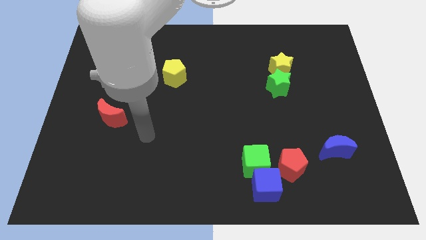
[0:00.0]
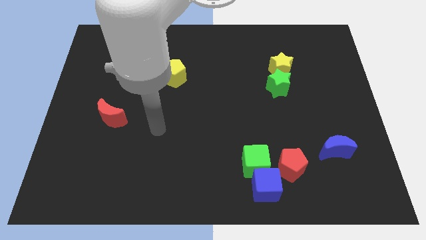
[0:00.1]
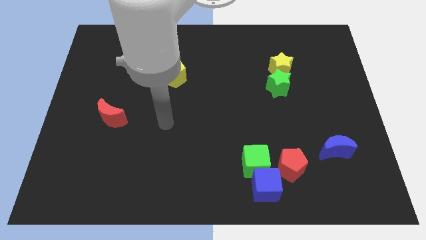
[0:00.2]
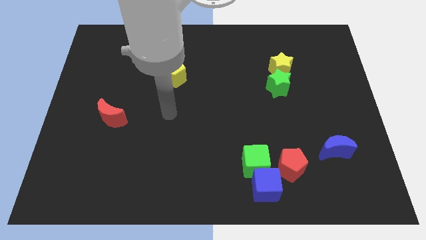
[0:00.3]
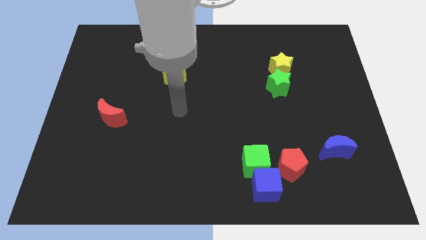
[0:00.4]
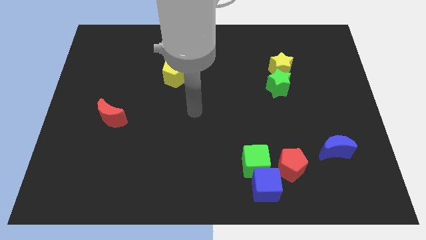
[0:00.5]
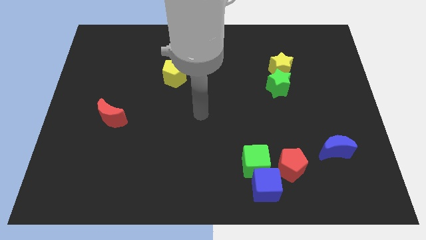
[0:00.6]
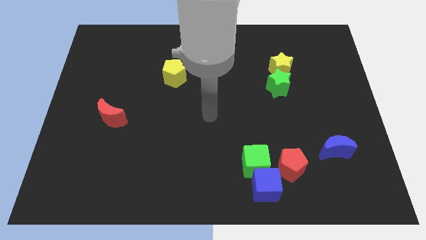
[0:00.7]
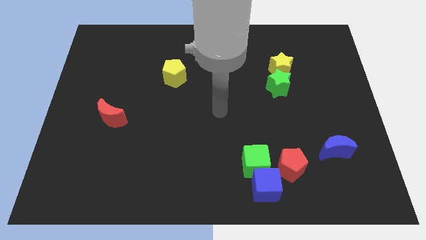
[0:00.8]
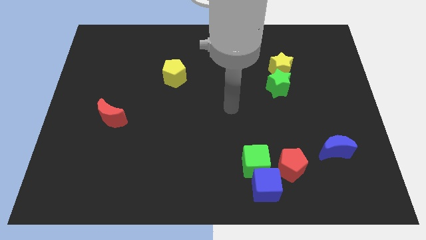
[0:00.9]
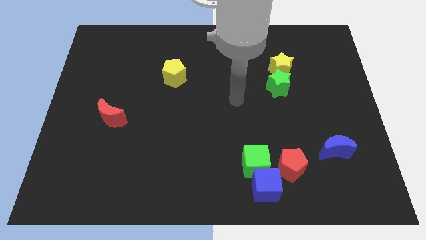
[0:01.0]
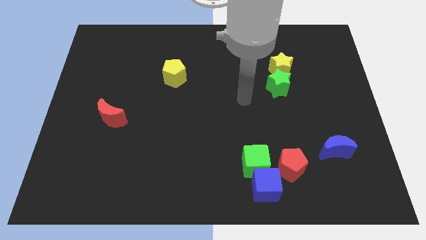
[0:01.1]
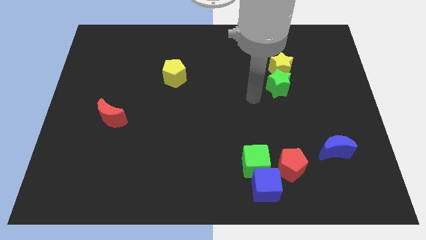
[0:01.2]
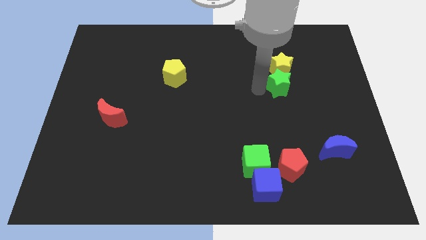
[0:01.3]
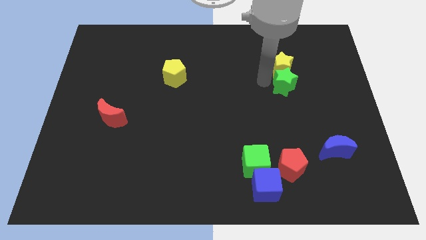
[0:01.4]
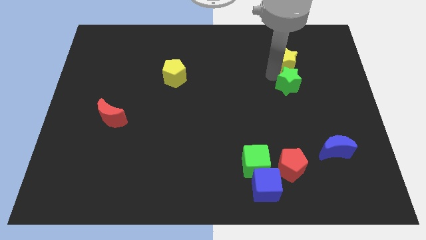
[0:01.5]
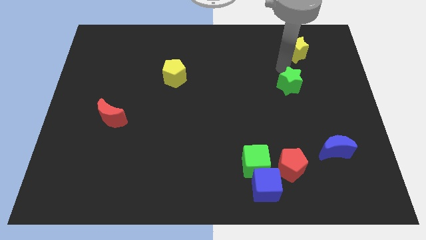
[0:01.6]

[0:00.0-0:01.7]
move the green star away from the yellow star

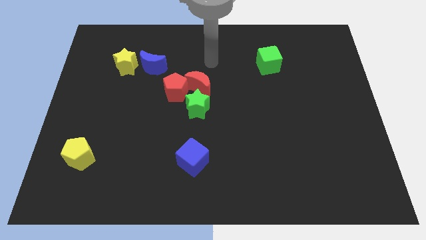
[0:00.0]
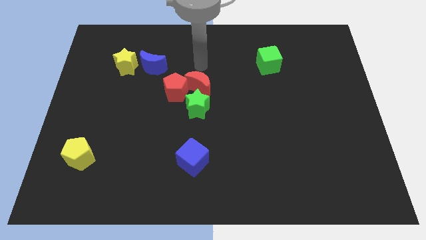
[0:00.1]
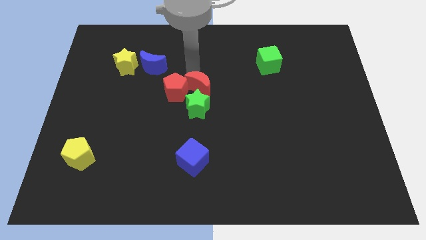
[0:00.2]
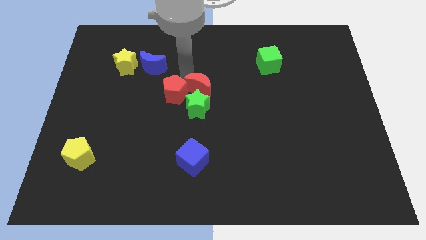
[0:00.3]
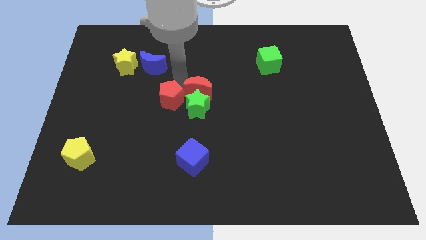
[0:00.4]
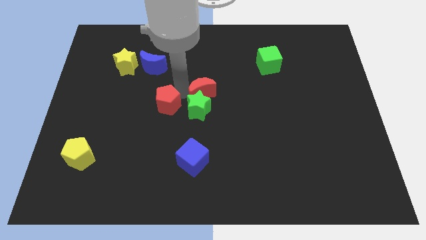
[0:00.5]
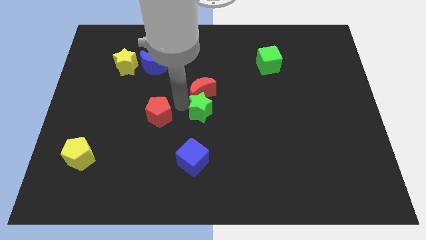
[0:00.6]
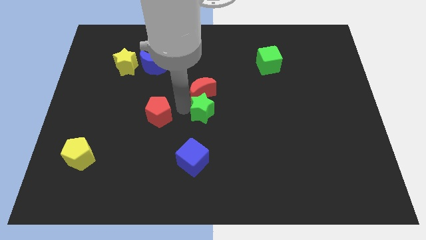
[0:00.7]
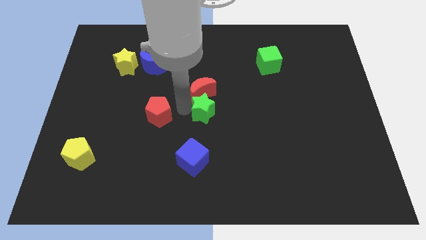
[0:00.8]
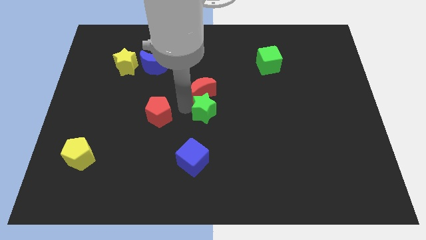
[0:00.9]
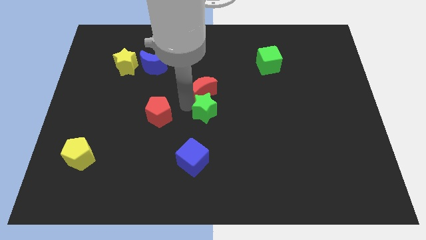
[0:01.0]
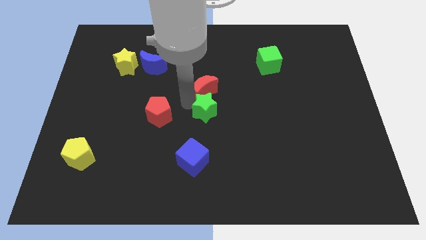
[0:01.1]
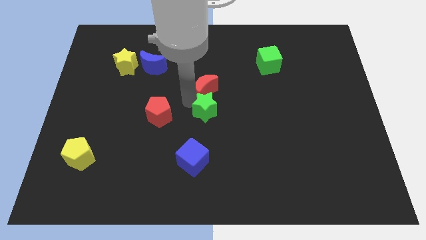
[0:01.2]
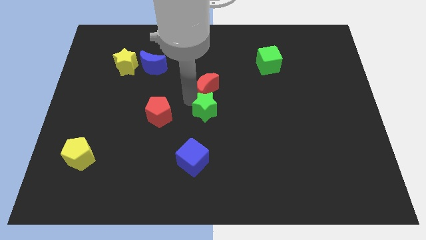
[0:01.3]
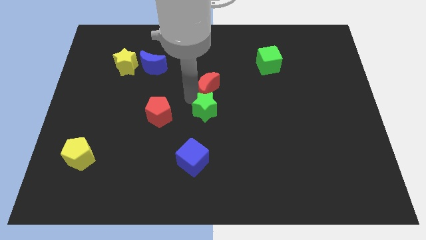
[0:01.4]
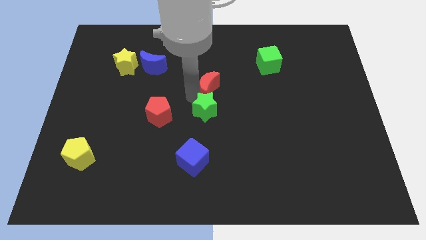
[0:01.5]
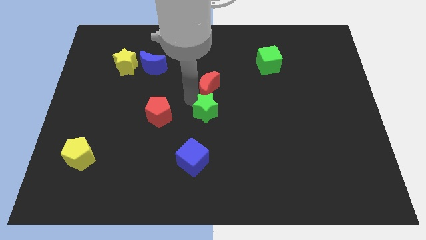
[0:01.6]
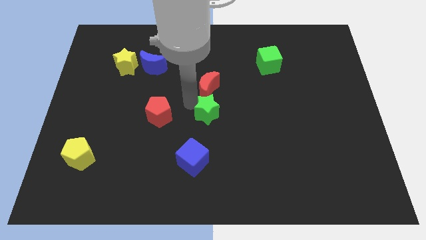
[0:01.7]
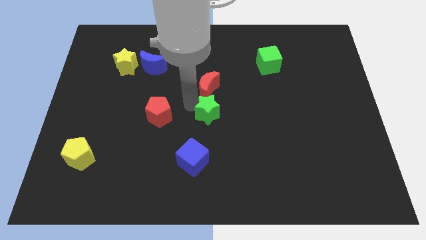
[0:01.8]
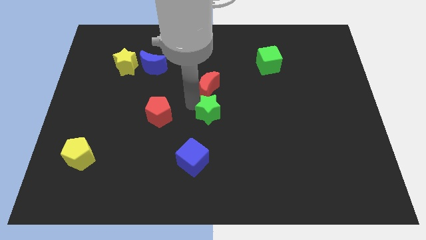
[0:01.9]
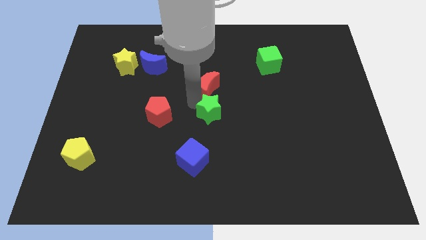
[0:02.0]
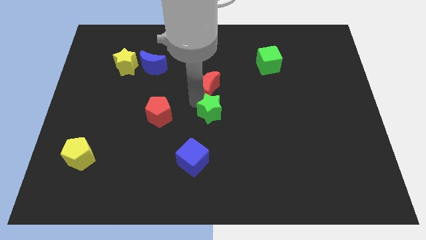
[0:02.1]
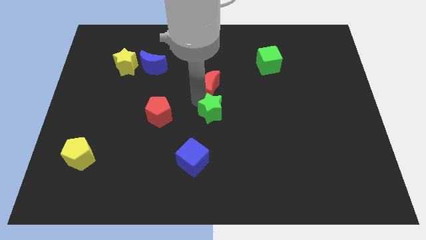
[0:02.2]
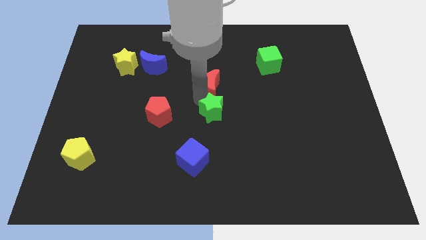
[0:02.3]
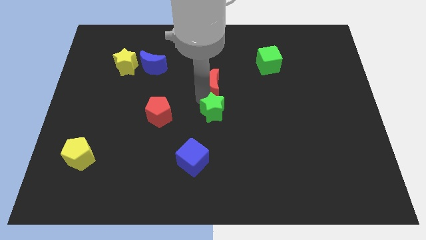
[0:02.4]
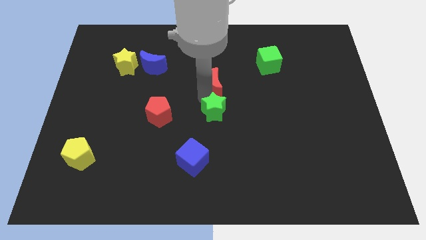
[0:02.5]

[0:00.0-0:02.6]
pull the red moon apart from the red pentagon and green star

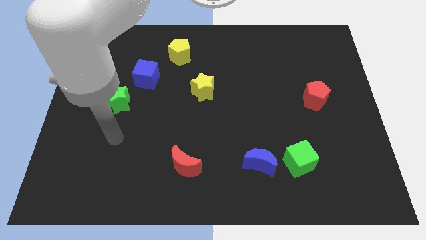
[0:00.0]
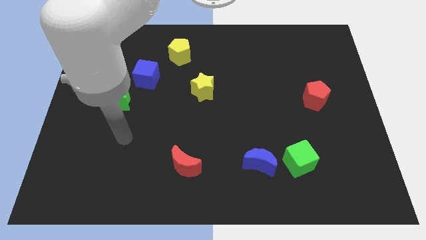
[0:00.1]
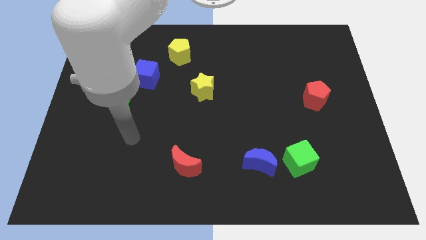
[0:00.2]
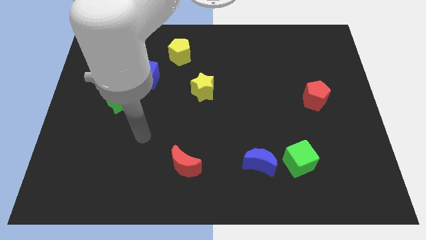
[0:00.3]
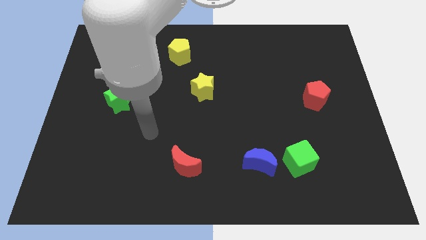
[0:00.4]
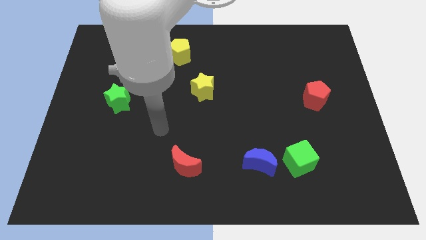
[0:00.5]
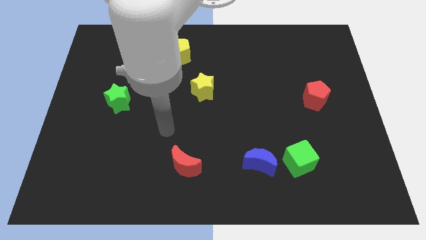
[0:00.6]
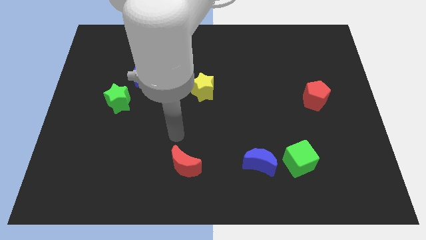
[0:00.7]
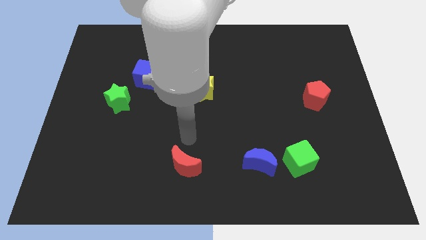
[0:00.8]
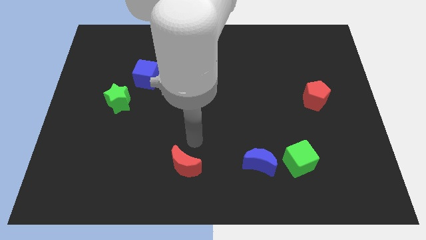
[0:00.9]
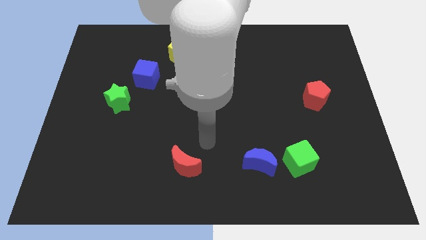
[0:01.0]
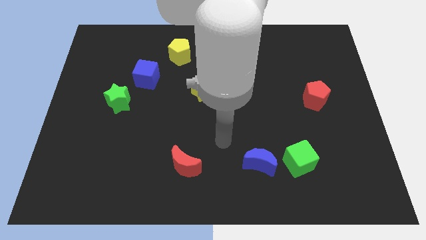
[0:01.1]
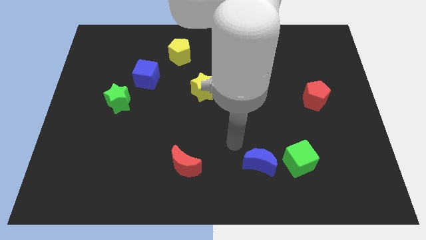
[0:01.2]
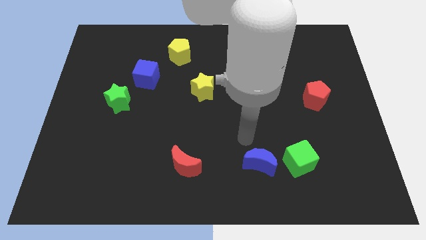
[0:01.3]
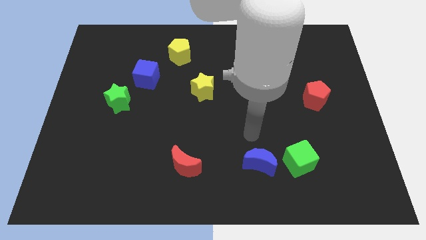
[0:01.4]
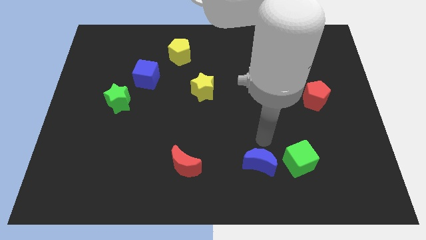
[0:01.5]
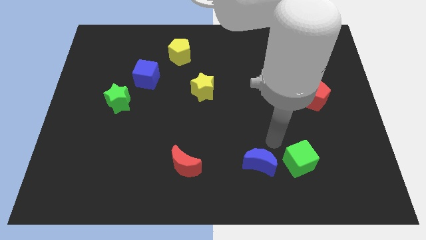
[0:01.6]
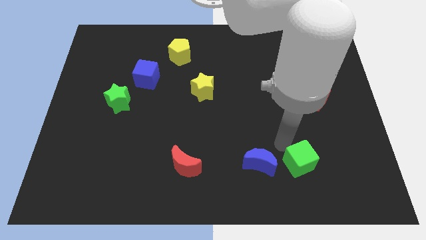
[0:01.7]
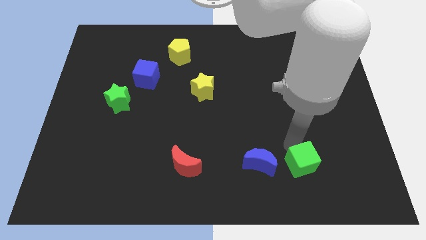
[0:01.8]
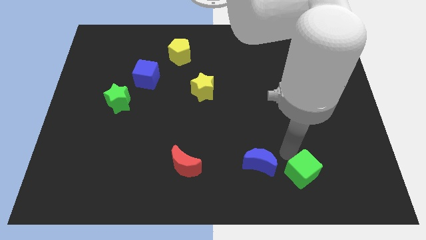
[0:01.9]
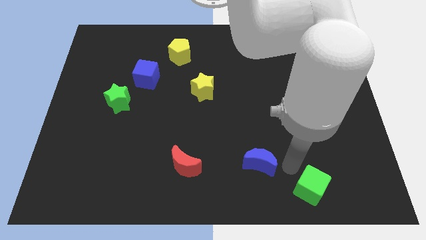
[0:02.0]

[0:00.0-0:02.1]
pull the blue moon apart from the green cube

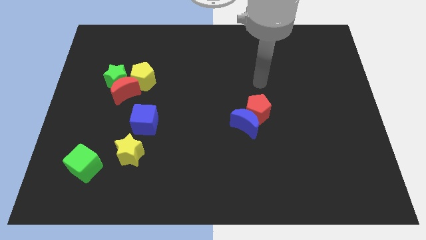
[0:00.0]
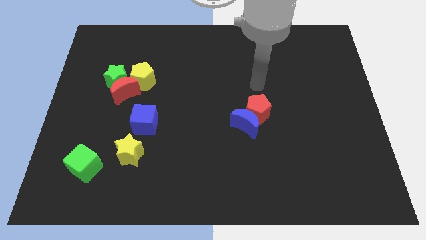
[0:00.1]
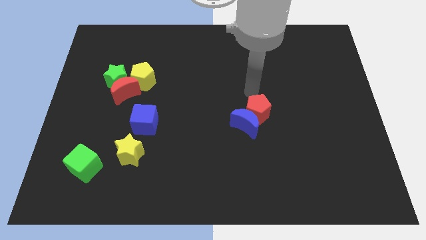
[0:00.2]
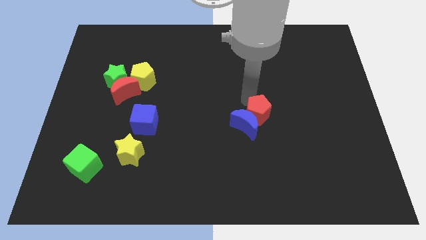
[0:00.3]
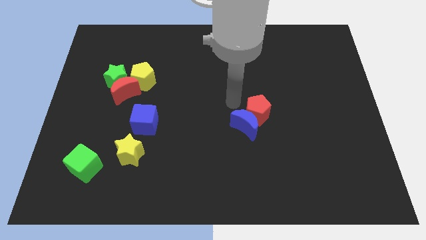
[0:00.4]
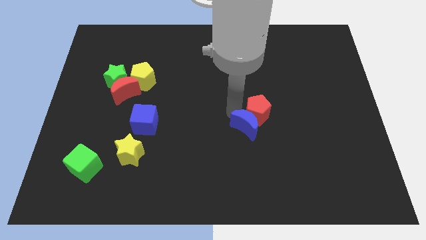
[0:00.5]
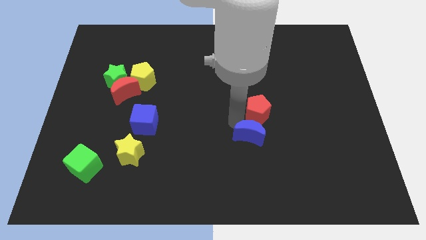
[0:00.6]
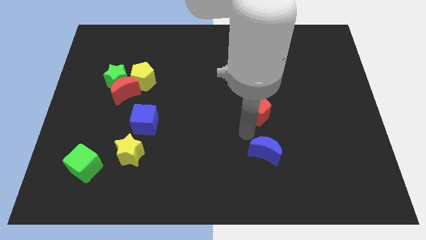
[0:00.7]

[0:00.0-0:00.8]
separate the red pentagon from the blue moon

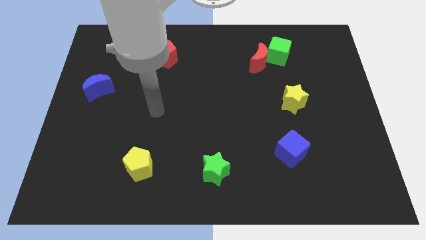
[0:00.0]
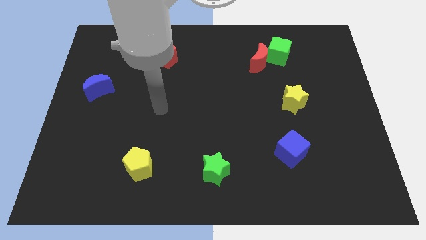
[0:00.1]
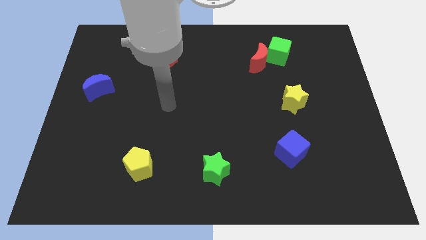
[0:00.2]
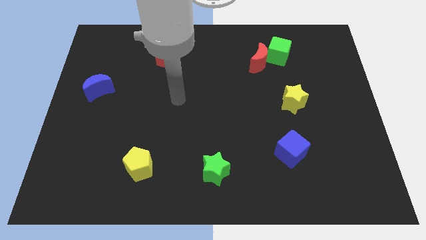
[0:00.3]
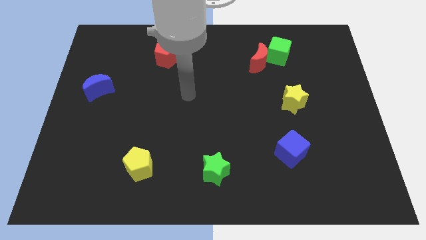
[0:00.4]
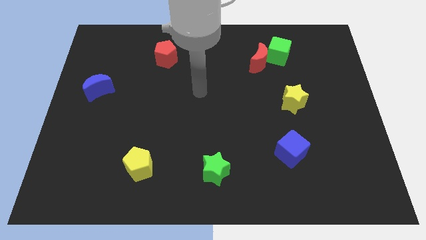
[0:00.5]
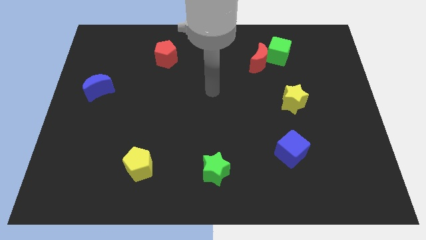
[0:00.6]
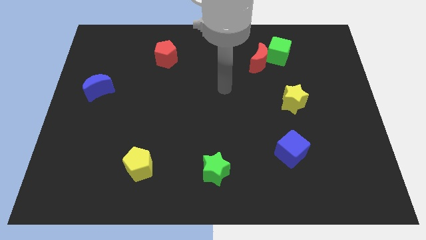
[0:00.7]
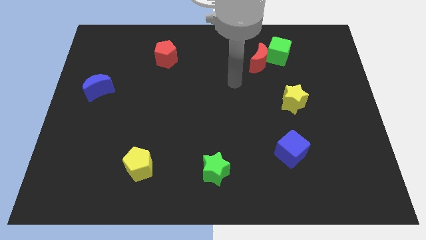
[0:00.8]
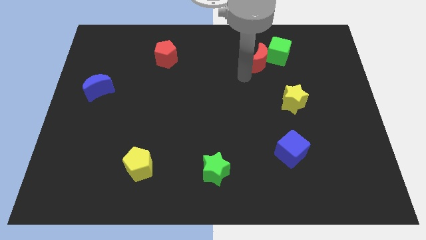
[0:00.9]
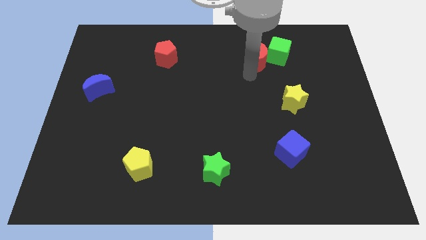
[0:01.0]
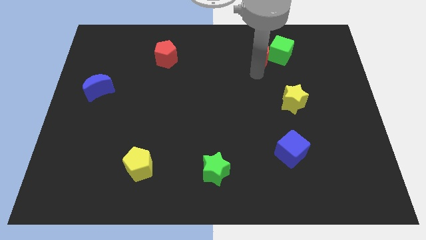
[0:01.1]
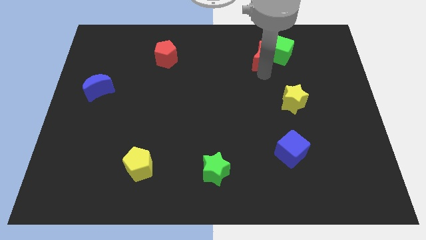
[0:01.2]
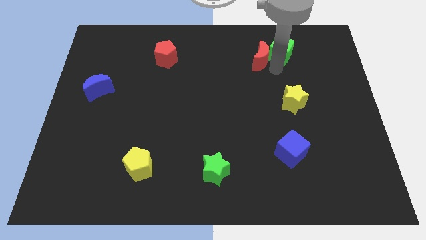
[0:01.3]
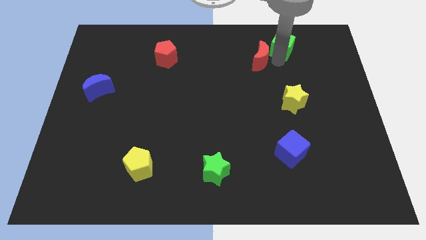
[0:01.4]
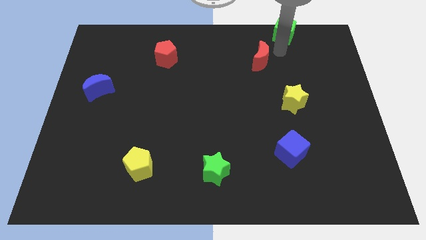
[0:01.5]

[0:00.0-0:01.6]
move the red moon away from the green cube

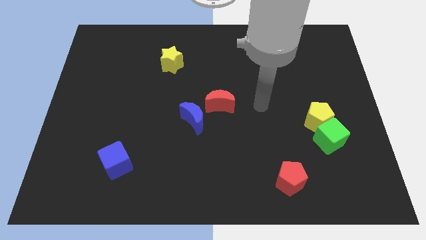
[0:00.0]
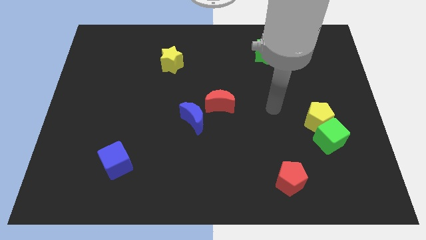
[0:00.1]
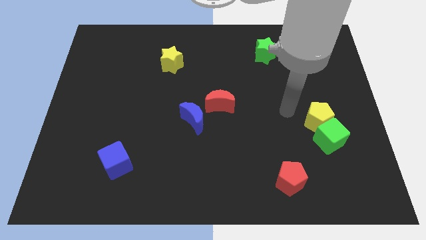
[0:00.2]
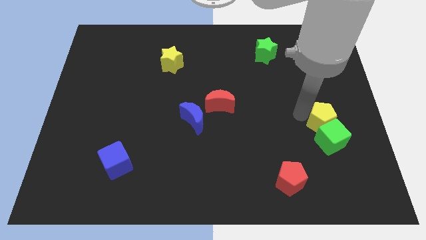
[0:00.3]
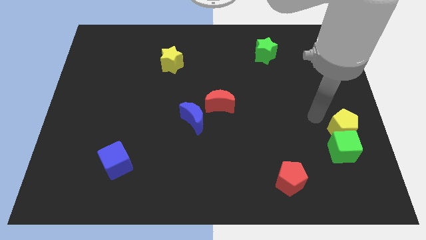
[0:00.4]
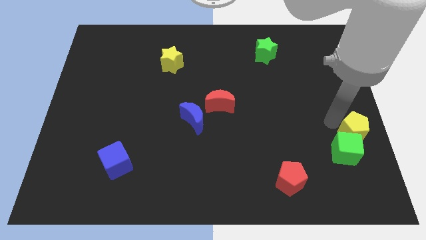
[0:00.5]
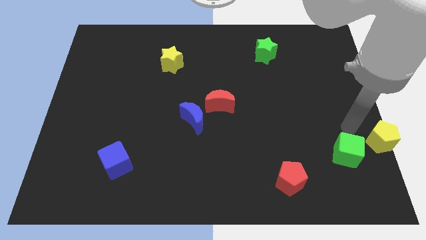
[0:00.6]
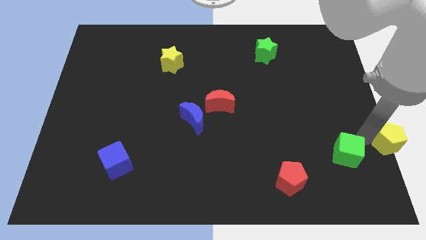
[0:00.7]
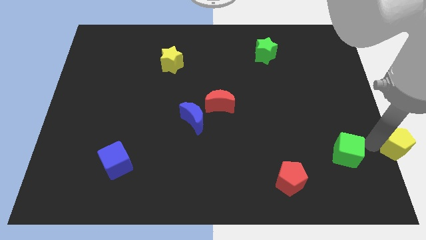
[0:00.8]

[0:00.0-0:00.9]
separate the green cube from the yellow pentagon
